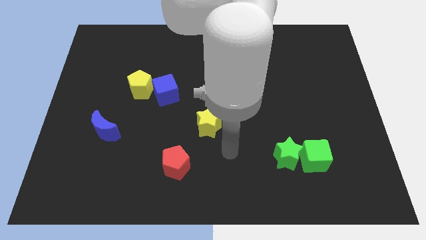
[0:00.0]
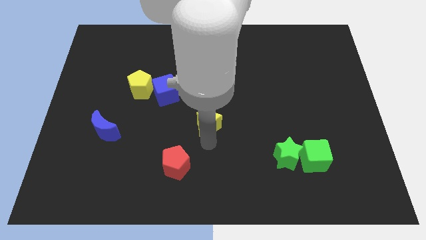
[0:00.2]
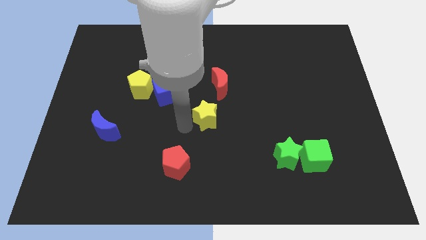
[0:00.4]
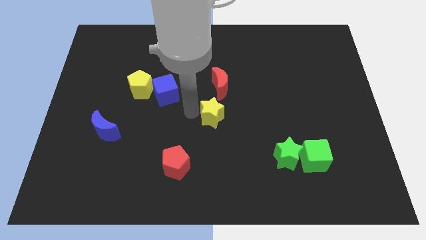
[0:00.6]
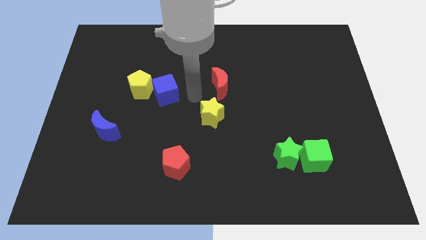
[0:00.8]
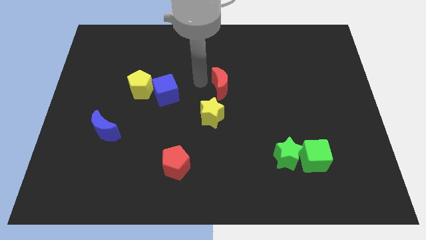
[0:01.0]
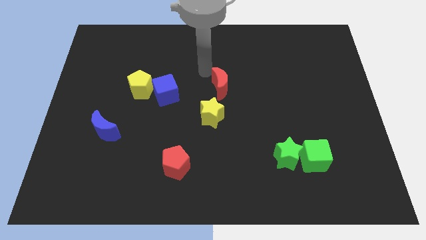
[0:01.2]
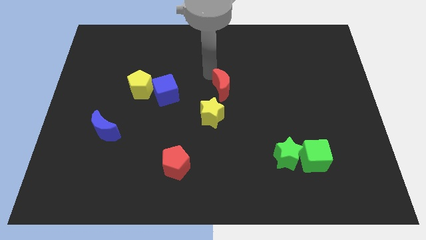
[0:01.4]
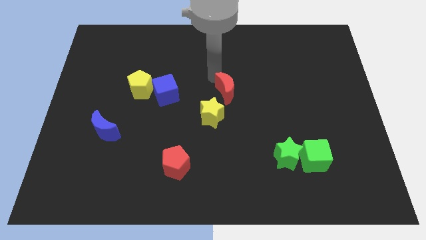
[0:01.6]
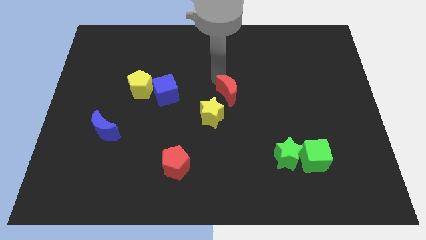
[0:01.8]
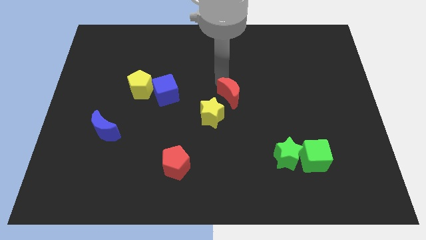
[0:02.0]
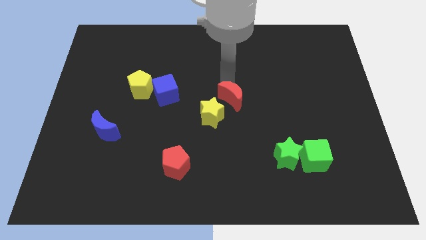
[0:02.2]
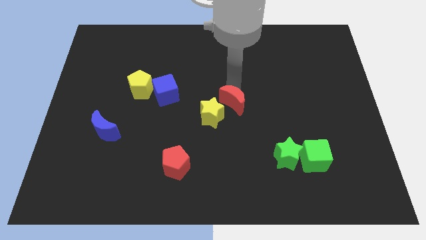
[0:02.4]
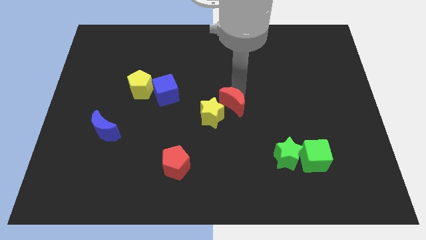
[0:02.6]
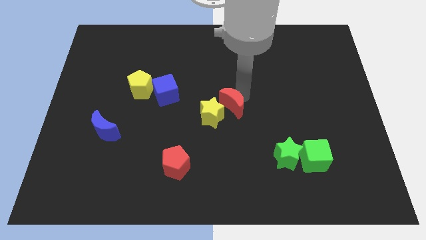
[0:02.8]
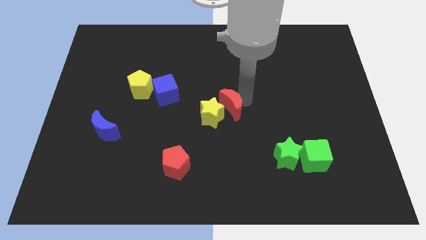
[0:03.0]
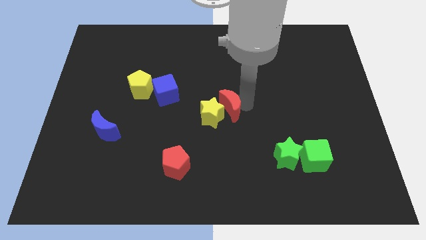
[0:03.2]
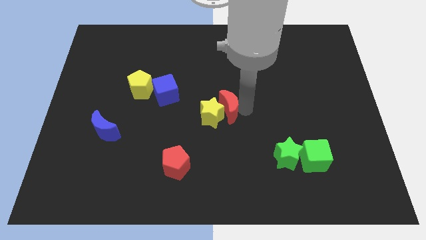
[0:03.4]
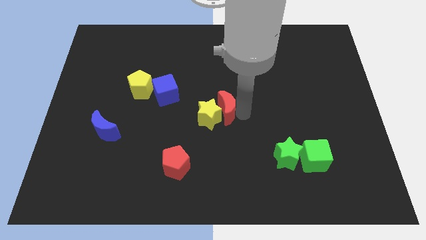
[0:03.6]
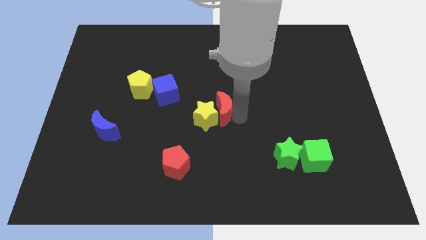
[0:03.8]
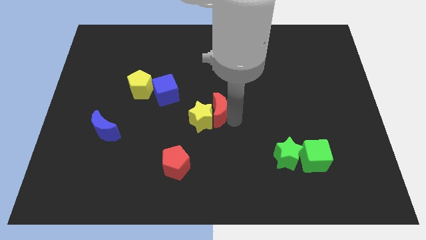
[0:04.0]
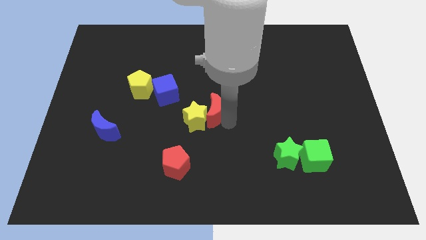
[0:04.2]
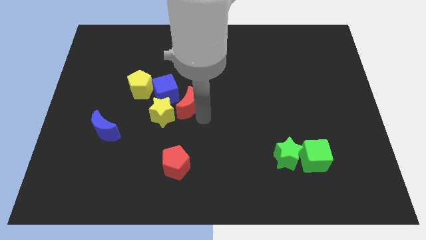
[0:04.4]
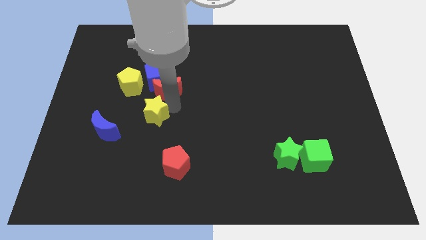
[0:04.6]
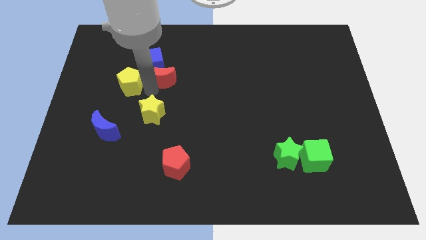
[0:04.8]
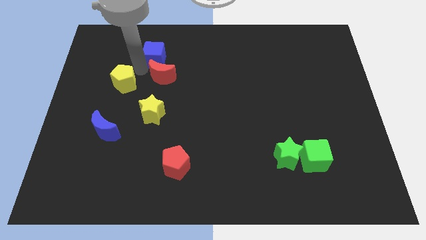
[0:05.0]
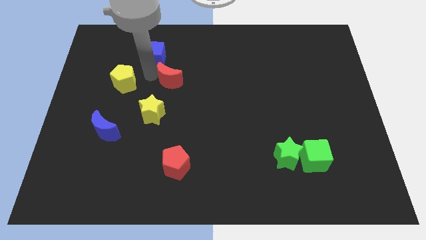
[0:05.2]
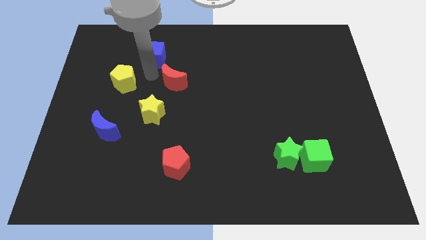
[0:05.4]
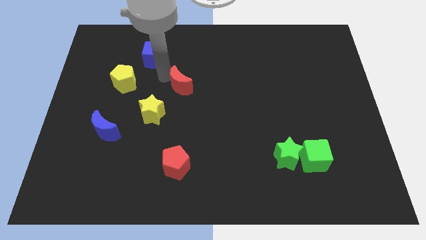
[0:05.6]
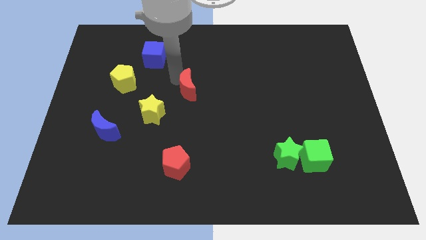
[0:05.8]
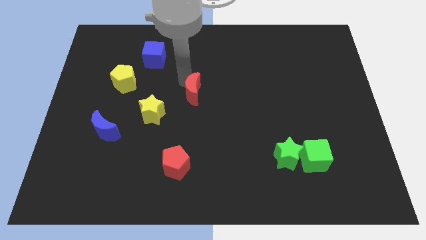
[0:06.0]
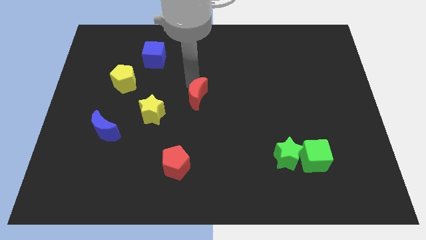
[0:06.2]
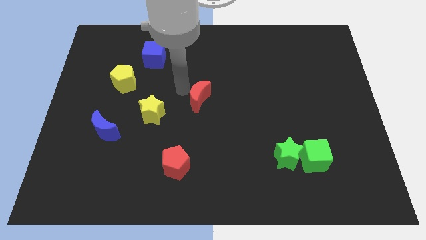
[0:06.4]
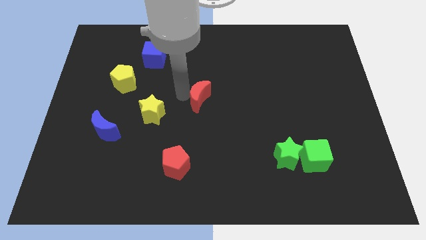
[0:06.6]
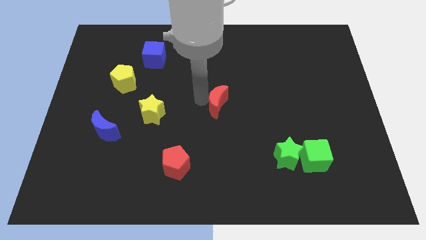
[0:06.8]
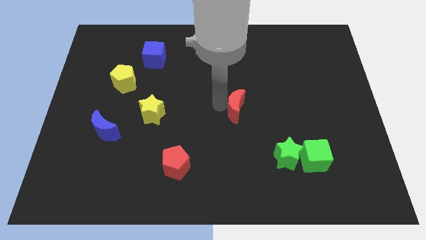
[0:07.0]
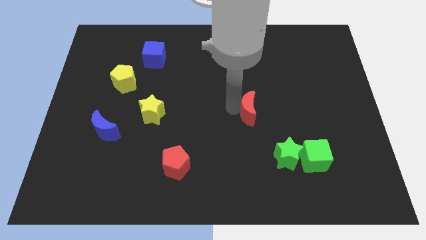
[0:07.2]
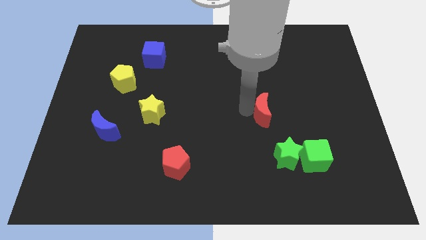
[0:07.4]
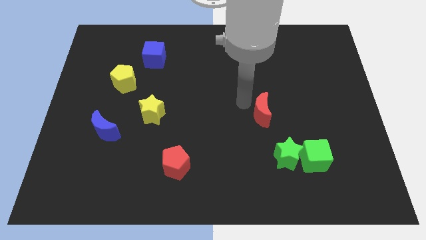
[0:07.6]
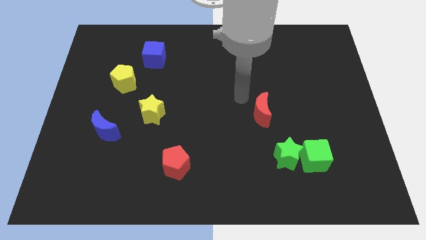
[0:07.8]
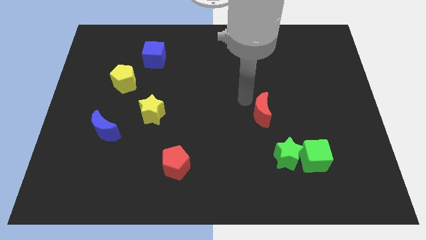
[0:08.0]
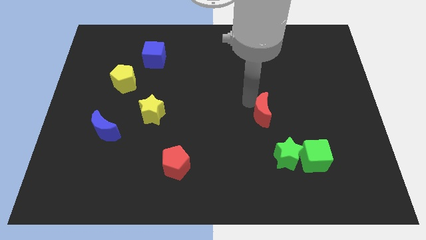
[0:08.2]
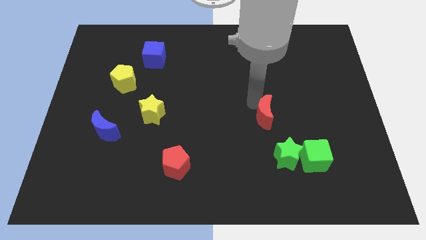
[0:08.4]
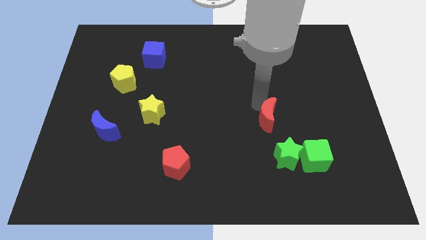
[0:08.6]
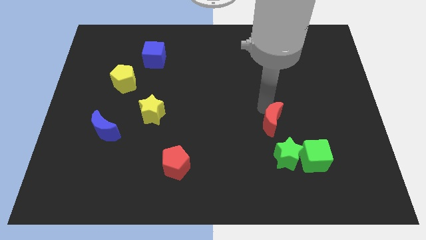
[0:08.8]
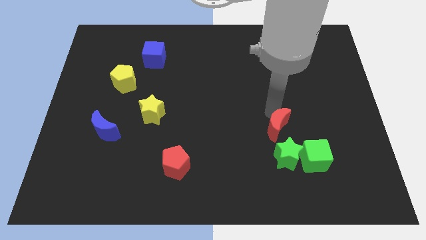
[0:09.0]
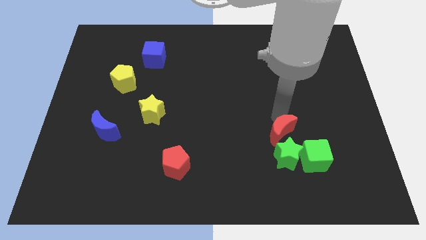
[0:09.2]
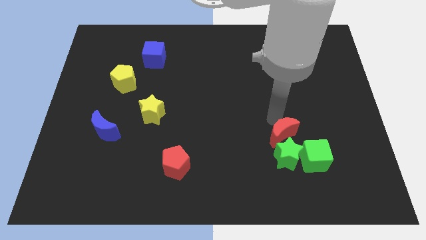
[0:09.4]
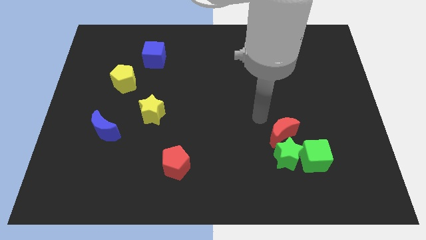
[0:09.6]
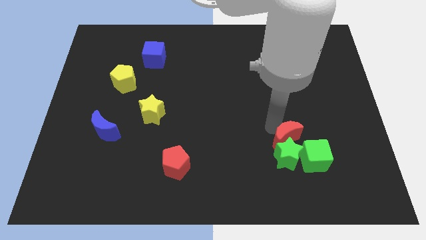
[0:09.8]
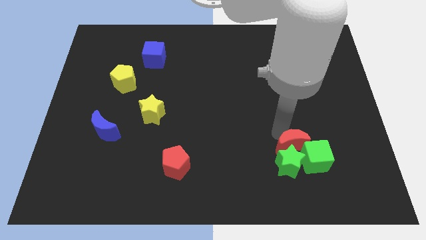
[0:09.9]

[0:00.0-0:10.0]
push the red moon towards the green cube

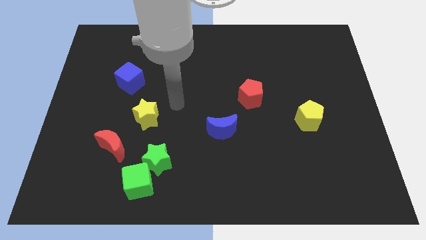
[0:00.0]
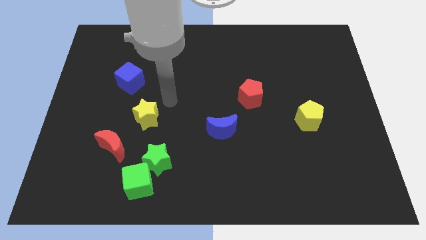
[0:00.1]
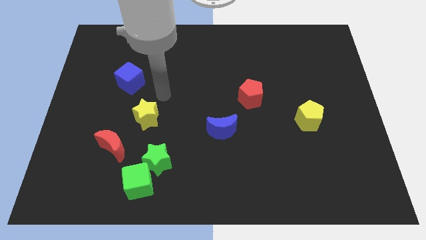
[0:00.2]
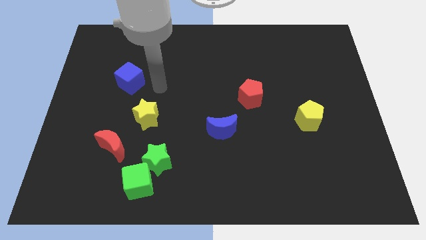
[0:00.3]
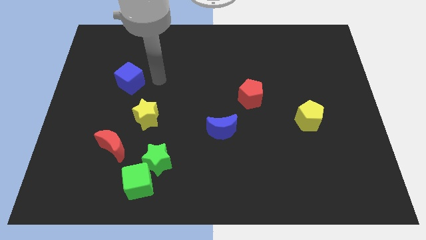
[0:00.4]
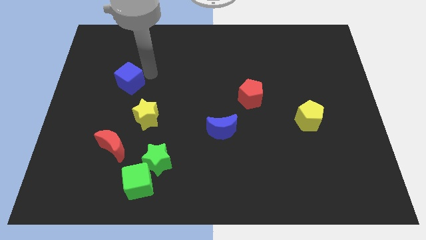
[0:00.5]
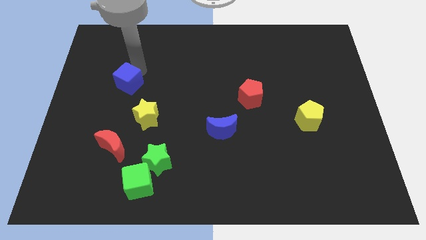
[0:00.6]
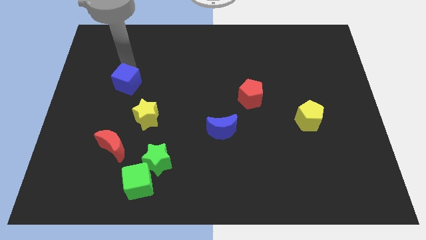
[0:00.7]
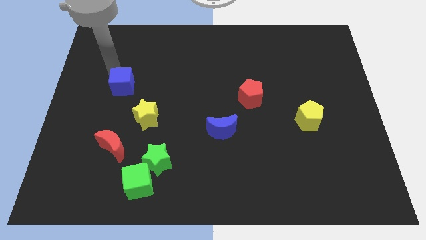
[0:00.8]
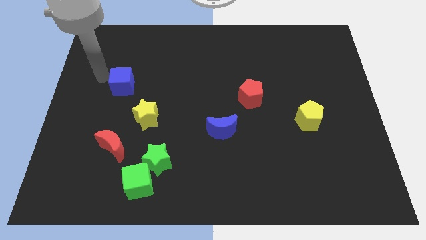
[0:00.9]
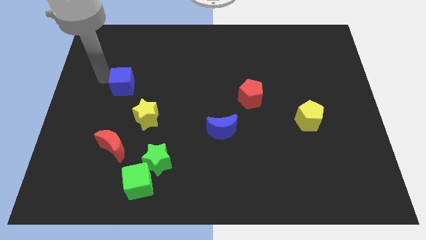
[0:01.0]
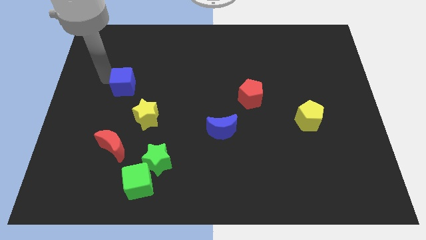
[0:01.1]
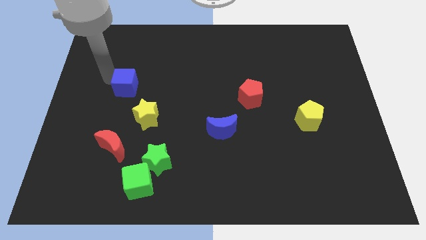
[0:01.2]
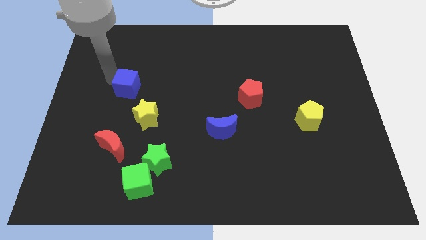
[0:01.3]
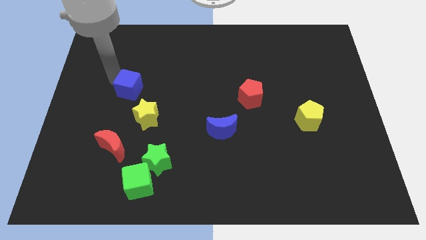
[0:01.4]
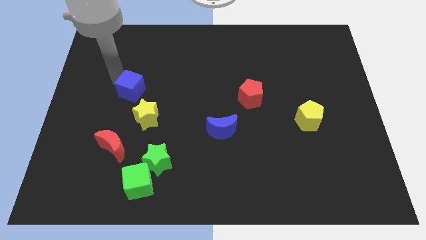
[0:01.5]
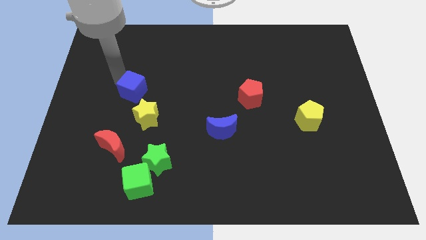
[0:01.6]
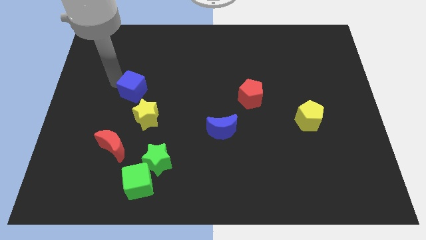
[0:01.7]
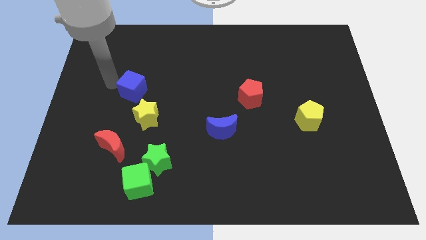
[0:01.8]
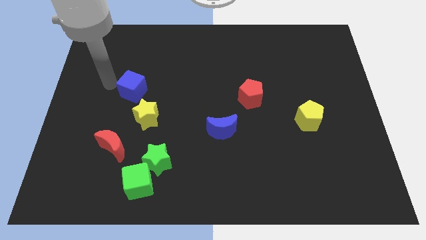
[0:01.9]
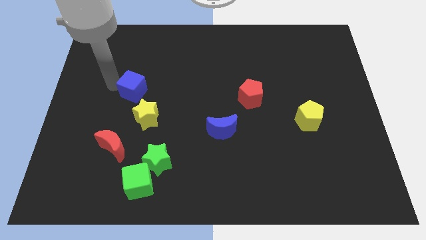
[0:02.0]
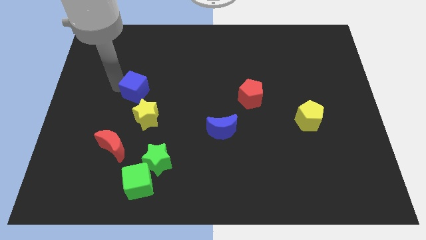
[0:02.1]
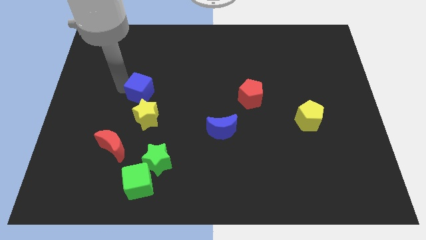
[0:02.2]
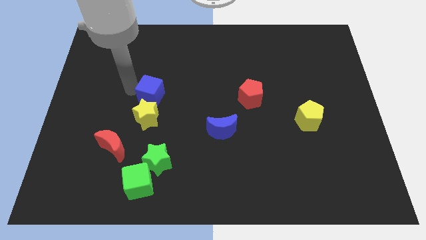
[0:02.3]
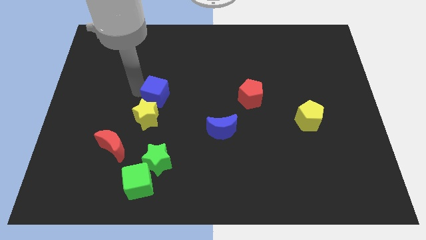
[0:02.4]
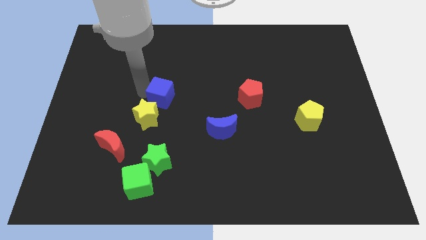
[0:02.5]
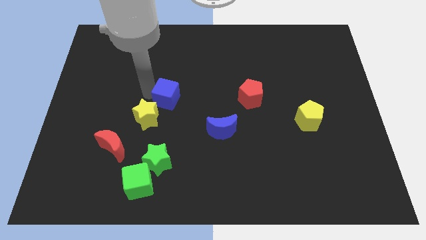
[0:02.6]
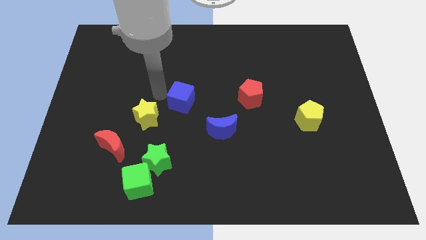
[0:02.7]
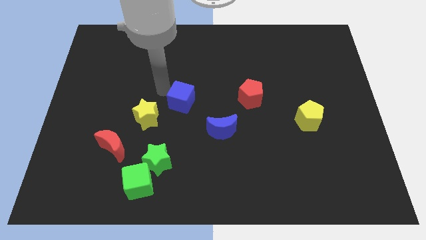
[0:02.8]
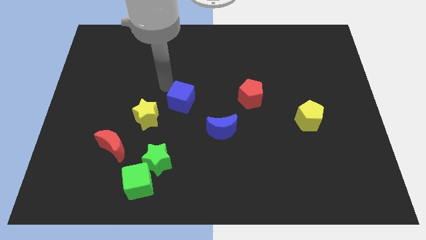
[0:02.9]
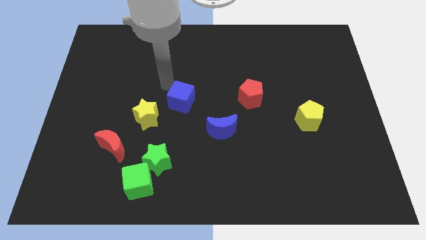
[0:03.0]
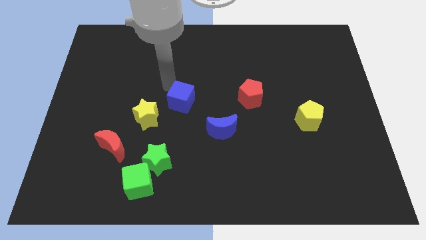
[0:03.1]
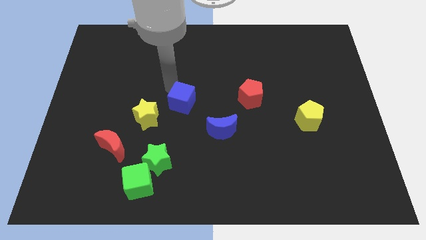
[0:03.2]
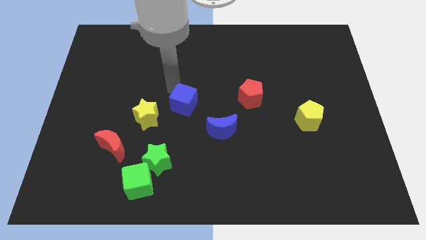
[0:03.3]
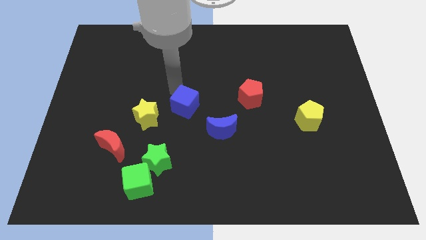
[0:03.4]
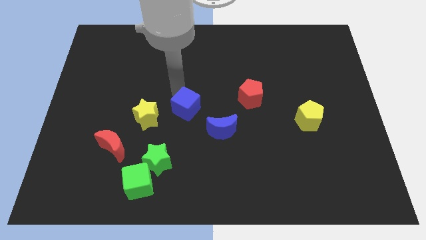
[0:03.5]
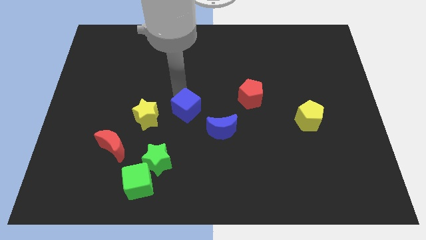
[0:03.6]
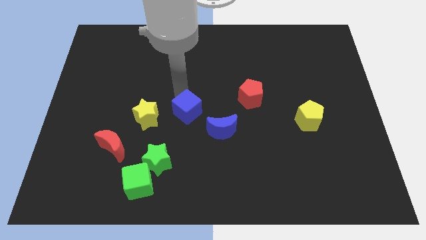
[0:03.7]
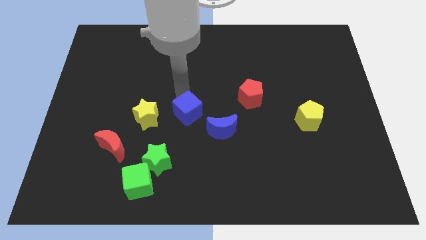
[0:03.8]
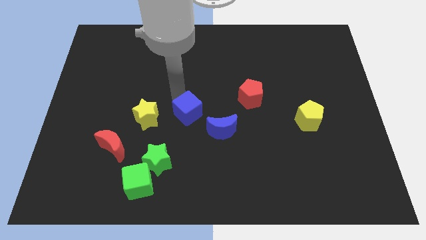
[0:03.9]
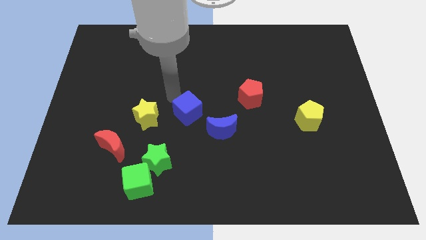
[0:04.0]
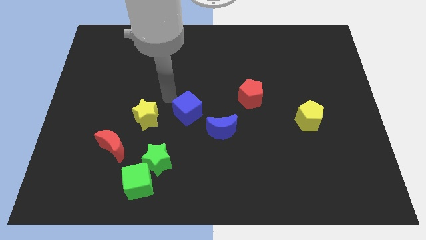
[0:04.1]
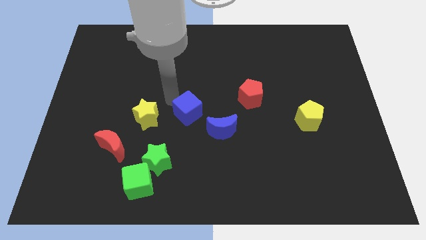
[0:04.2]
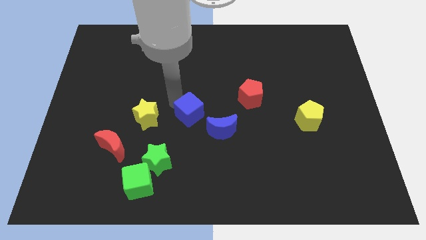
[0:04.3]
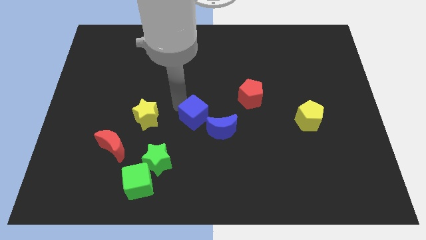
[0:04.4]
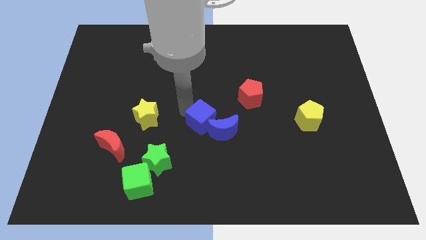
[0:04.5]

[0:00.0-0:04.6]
push the blue cube close to the blue moon
